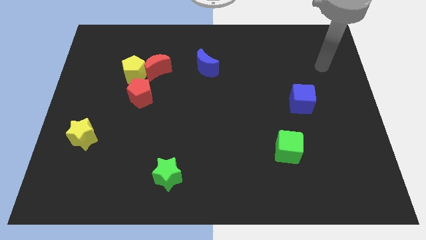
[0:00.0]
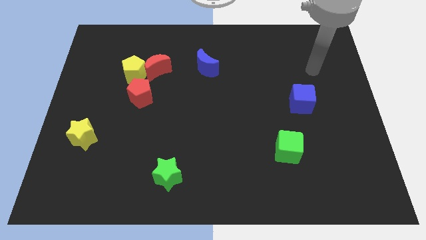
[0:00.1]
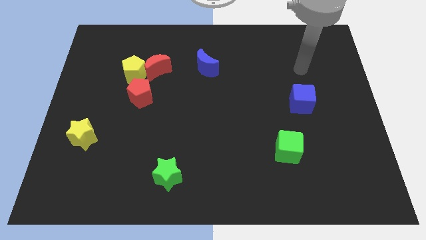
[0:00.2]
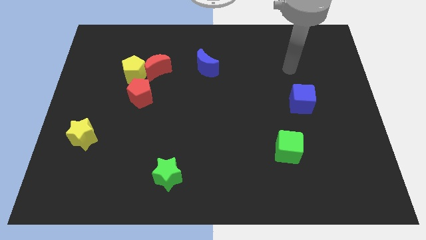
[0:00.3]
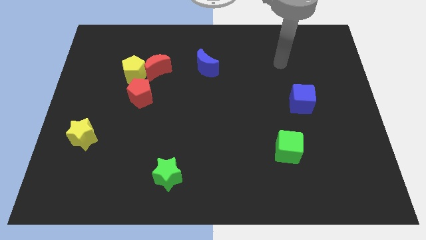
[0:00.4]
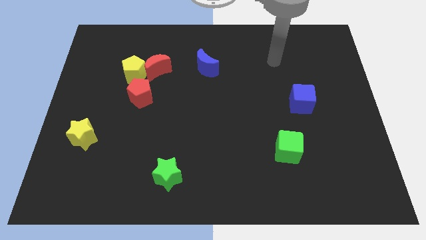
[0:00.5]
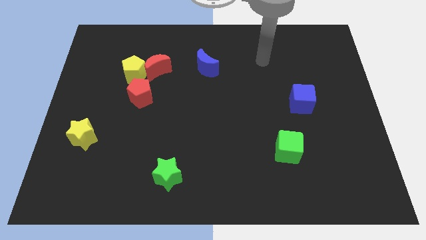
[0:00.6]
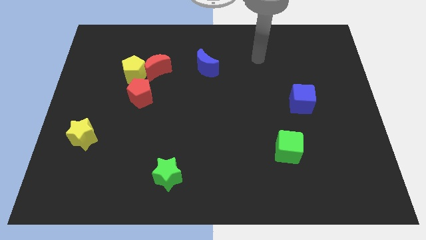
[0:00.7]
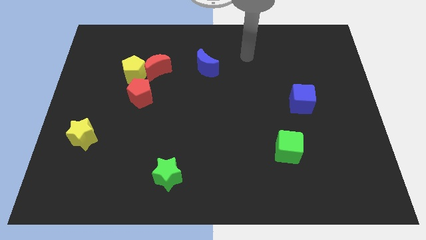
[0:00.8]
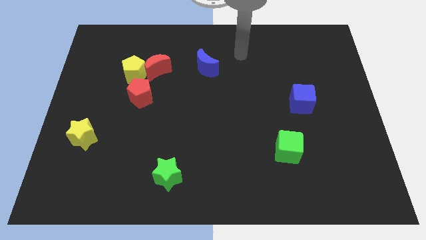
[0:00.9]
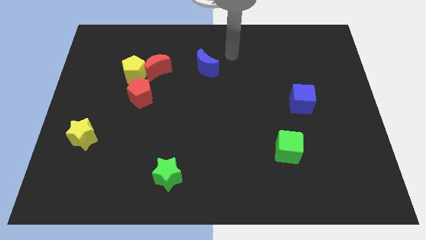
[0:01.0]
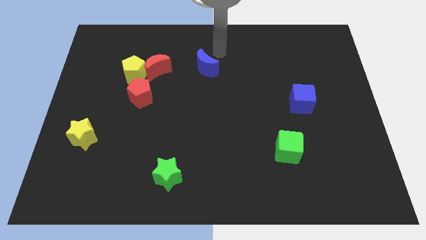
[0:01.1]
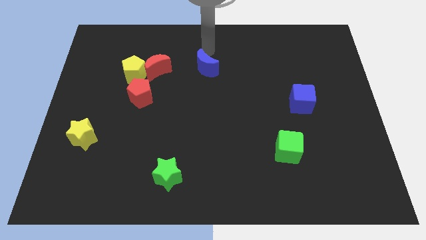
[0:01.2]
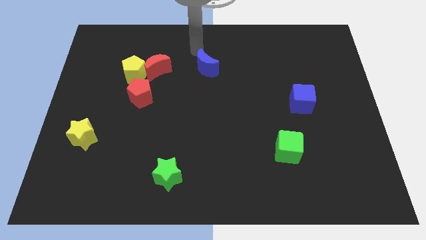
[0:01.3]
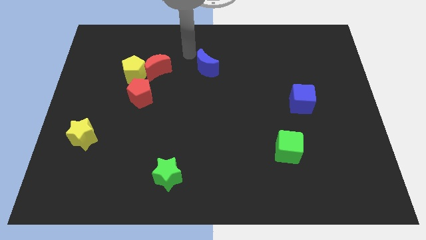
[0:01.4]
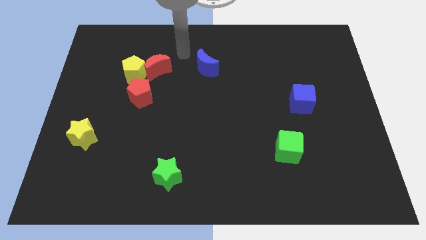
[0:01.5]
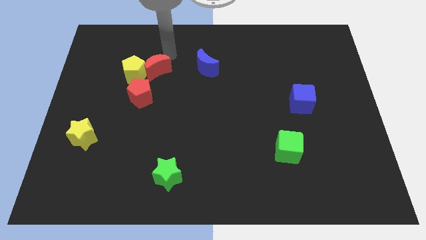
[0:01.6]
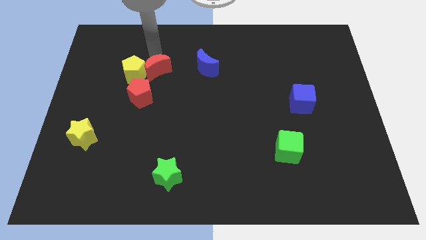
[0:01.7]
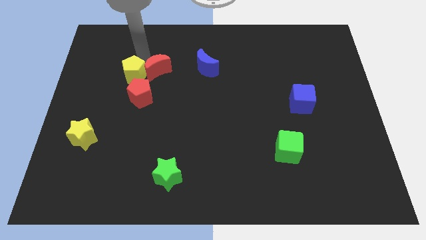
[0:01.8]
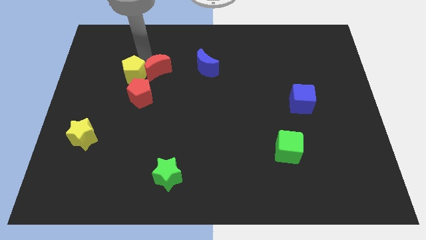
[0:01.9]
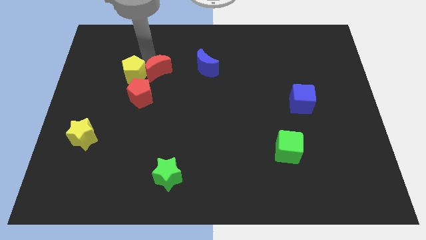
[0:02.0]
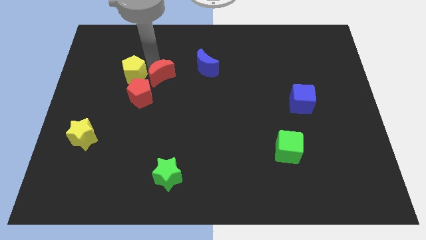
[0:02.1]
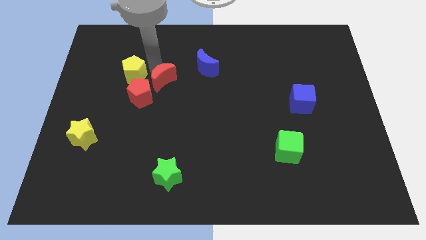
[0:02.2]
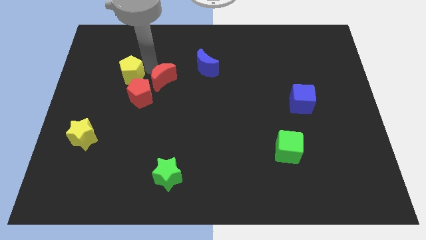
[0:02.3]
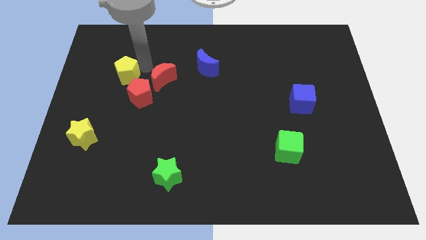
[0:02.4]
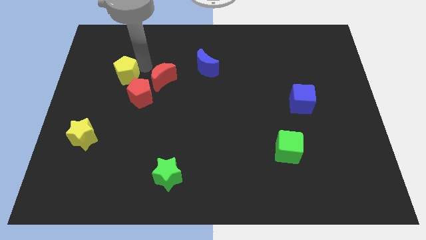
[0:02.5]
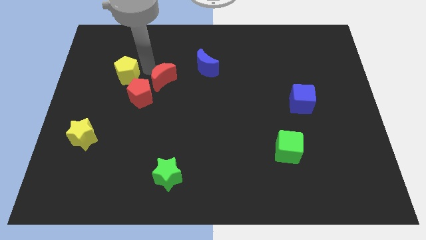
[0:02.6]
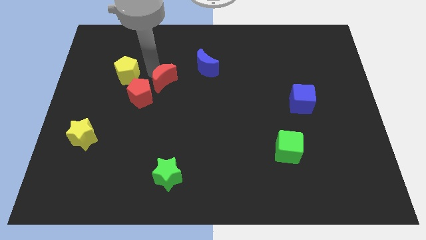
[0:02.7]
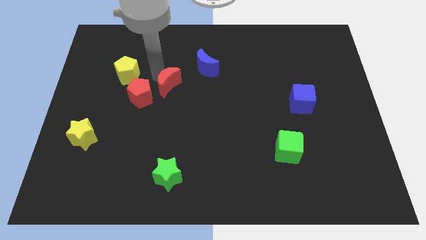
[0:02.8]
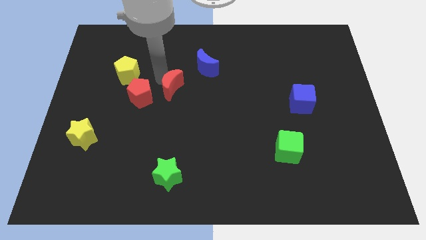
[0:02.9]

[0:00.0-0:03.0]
push the red moon down and right diagonally slightly

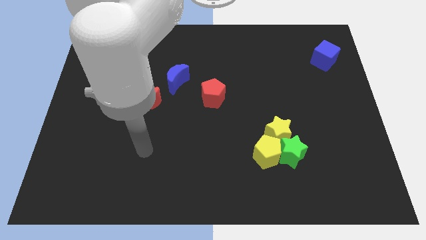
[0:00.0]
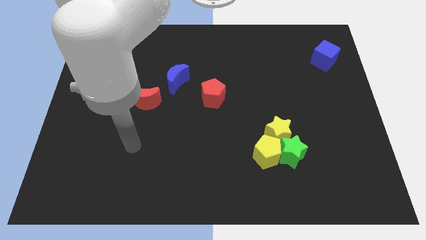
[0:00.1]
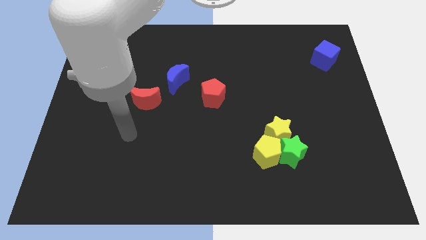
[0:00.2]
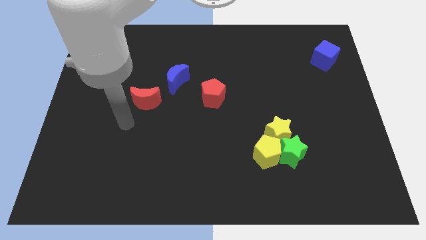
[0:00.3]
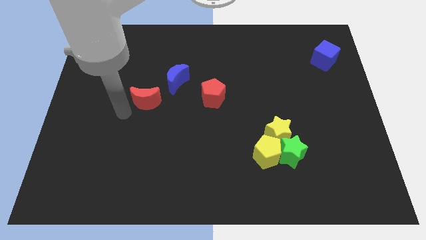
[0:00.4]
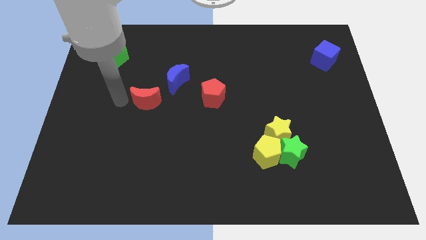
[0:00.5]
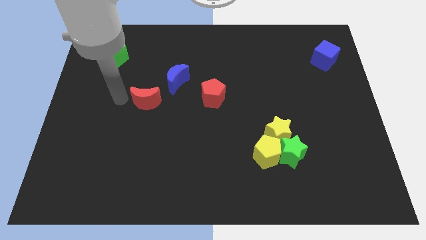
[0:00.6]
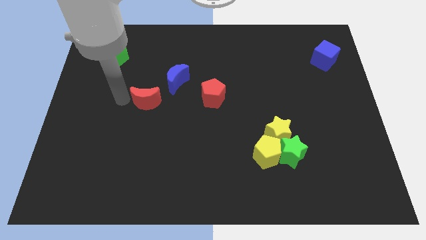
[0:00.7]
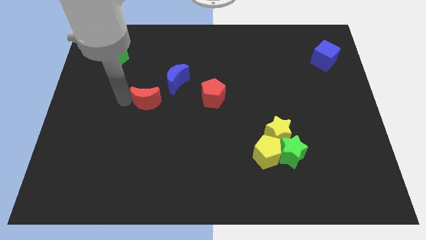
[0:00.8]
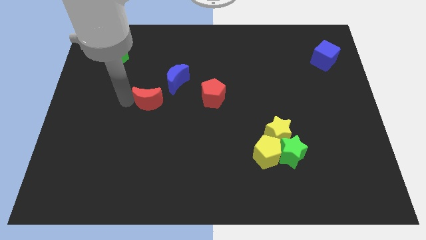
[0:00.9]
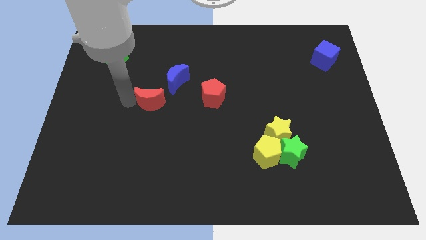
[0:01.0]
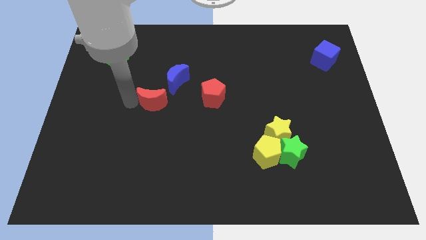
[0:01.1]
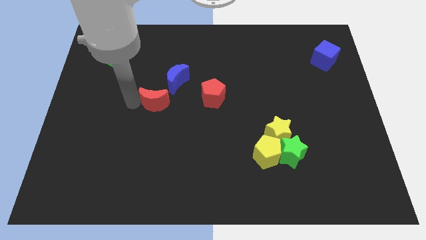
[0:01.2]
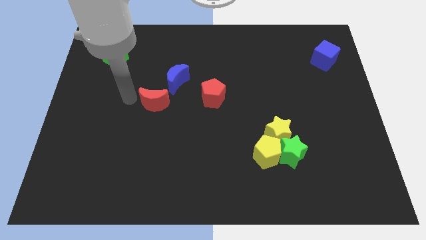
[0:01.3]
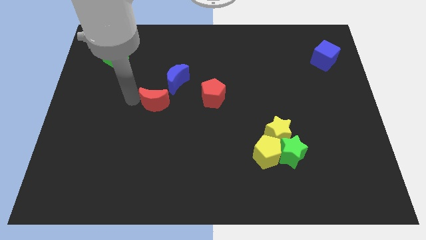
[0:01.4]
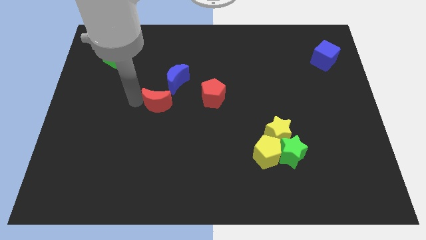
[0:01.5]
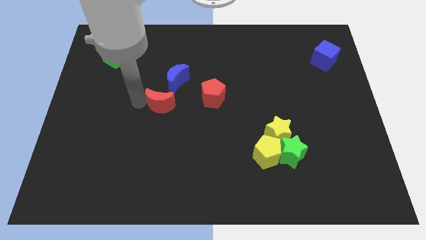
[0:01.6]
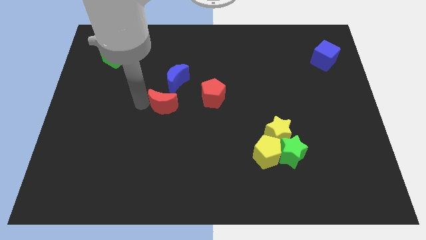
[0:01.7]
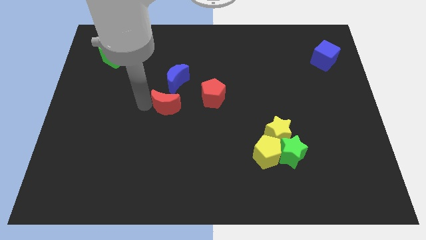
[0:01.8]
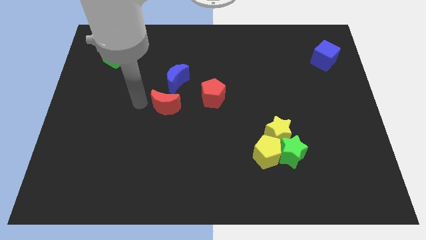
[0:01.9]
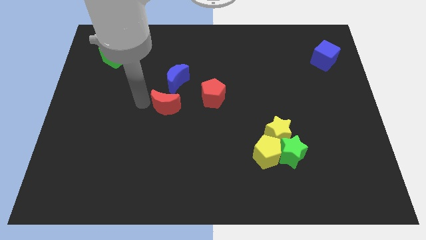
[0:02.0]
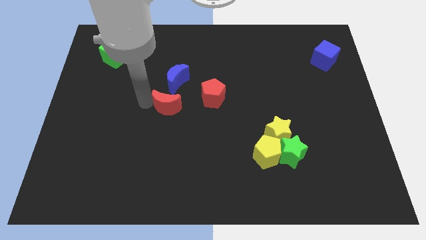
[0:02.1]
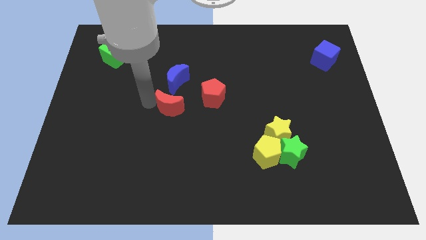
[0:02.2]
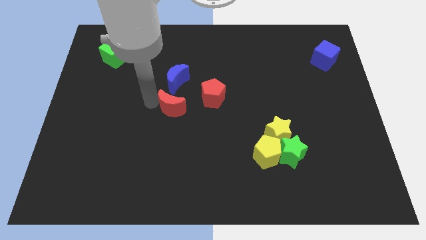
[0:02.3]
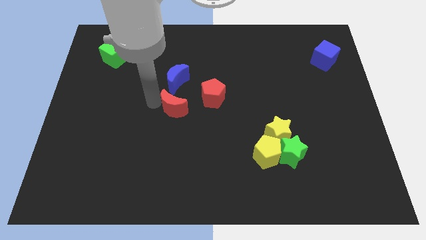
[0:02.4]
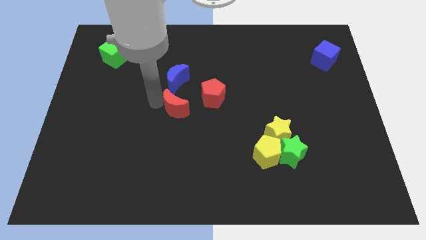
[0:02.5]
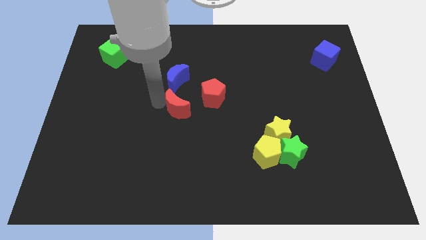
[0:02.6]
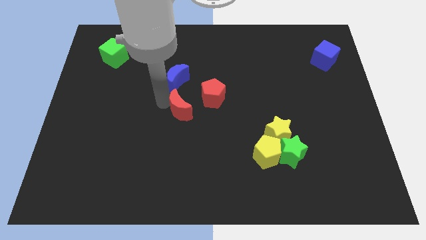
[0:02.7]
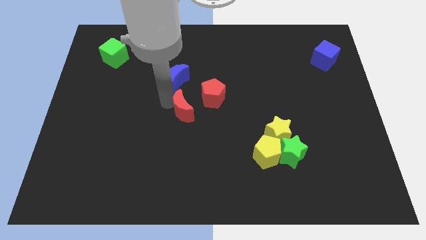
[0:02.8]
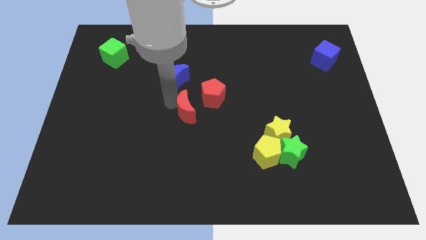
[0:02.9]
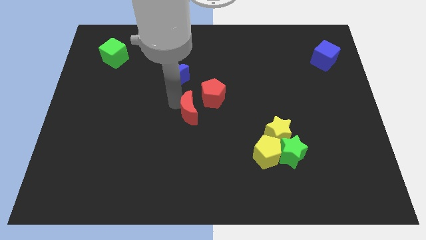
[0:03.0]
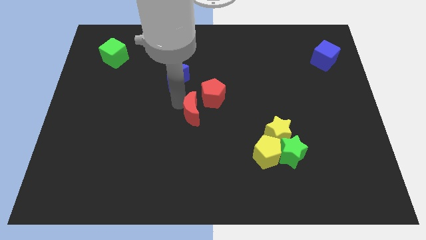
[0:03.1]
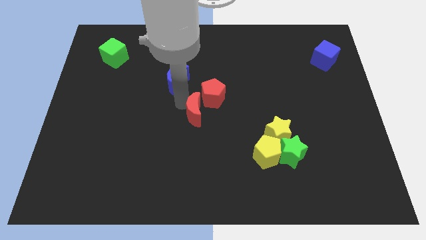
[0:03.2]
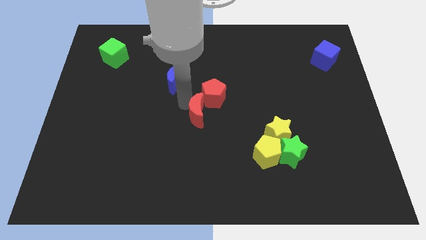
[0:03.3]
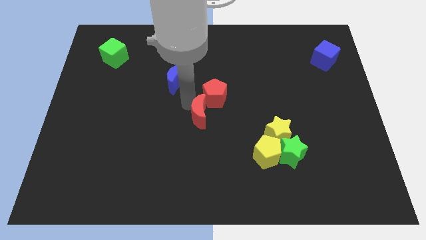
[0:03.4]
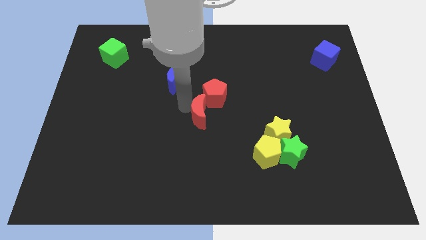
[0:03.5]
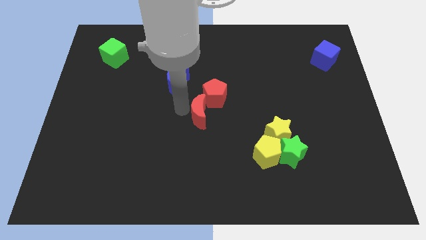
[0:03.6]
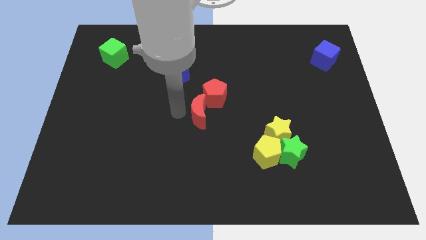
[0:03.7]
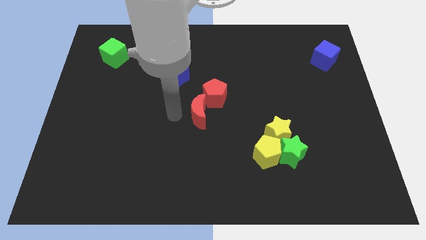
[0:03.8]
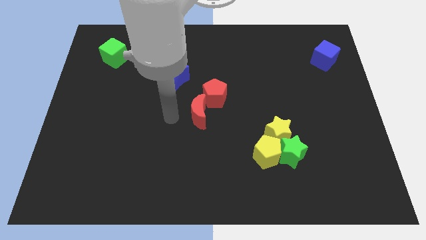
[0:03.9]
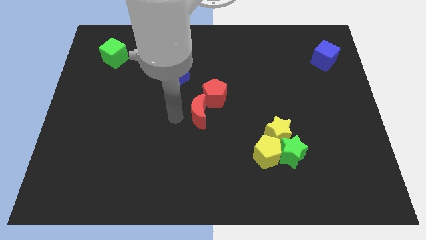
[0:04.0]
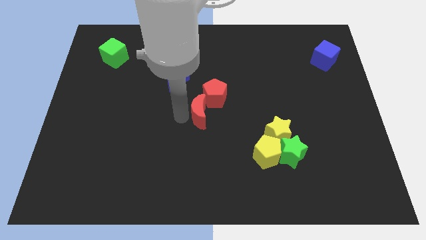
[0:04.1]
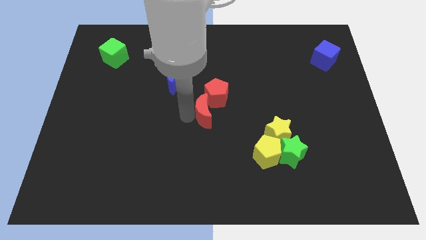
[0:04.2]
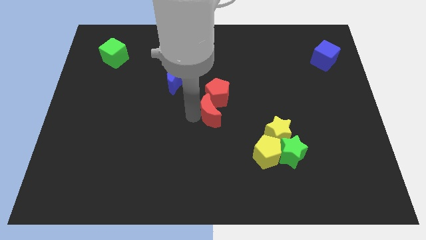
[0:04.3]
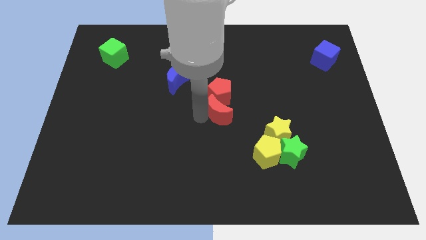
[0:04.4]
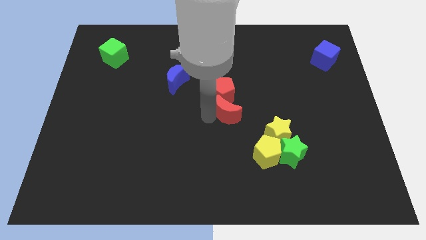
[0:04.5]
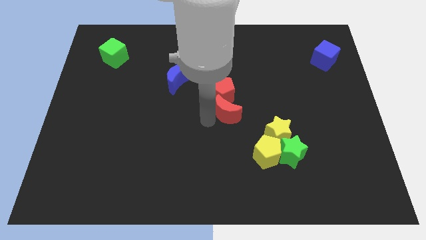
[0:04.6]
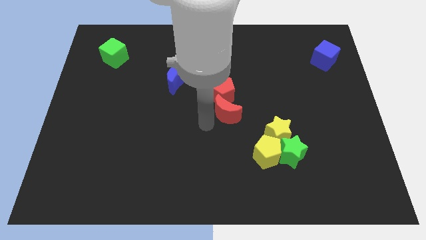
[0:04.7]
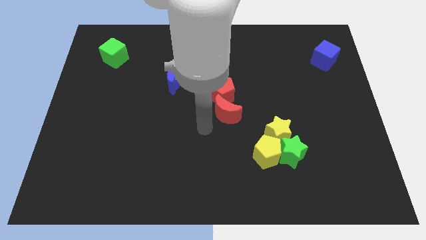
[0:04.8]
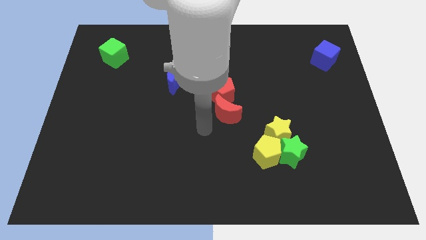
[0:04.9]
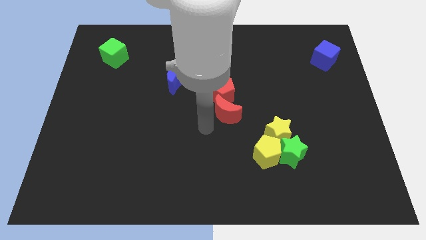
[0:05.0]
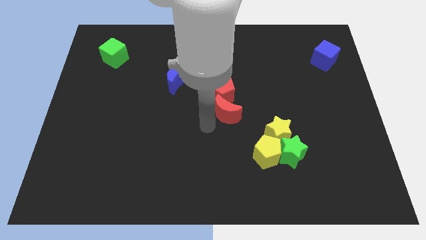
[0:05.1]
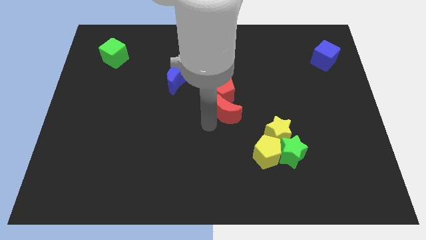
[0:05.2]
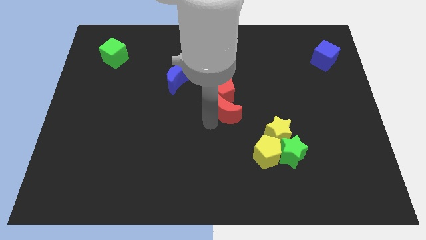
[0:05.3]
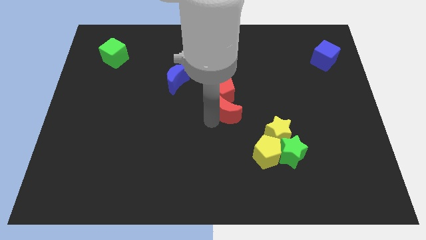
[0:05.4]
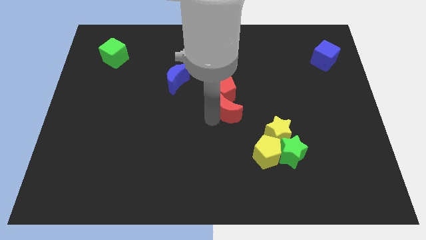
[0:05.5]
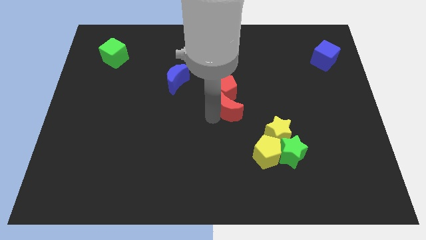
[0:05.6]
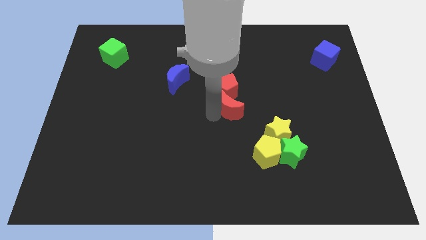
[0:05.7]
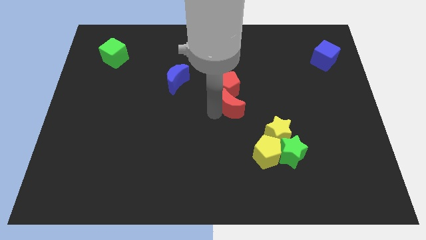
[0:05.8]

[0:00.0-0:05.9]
move the red moon right
